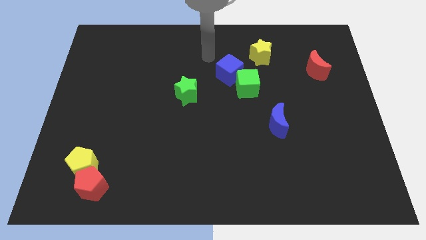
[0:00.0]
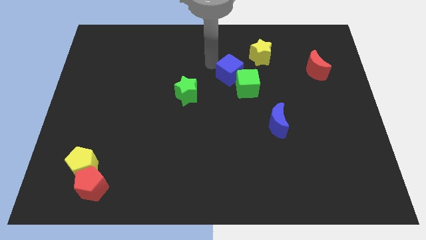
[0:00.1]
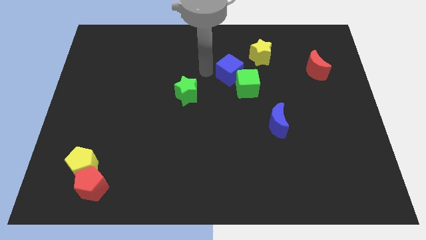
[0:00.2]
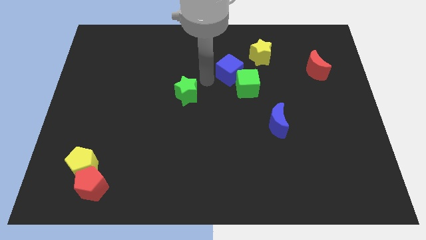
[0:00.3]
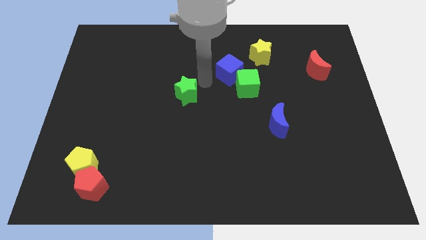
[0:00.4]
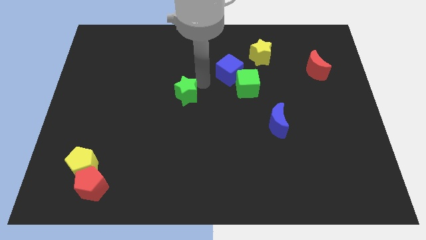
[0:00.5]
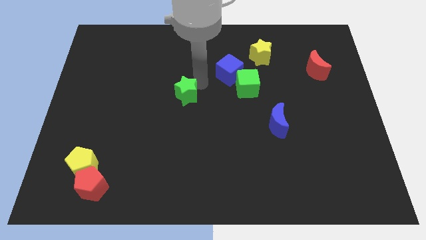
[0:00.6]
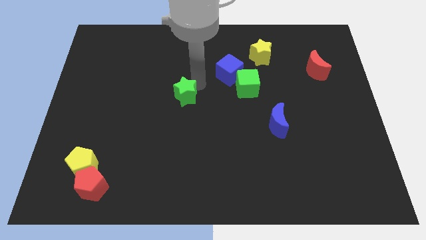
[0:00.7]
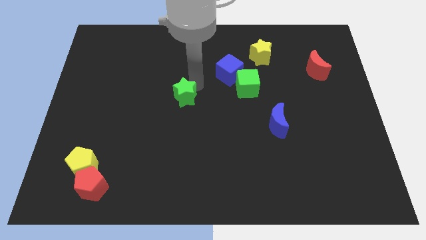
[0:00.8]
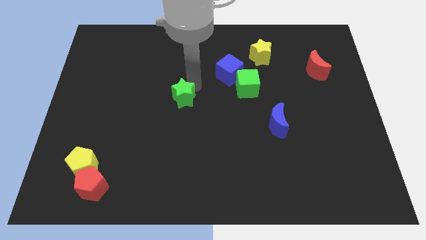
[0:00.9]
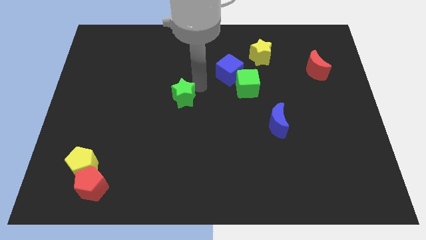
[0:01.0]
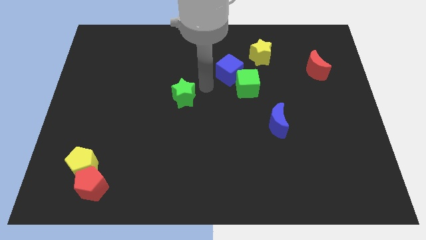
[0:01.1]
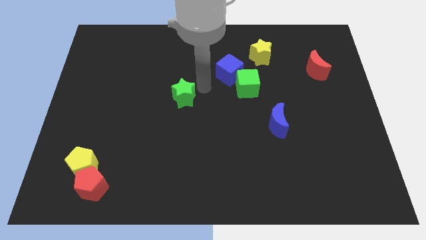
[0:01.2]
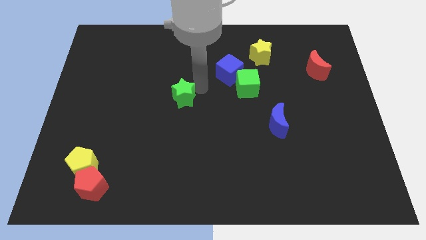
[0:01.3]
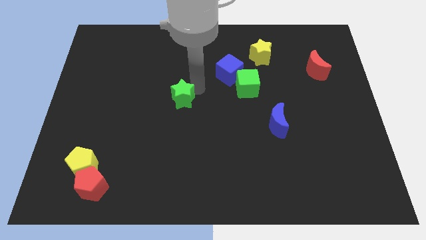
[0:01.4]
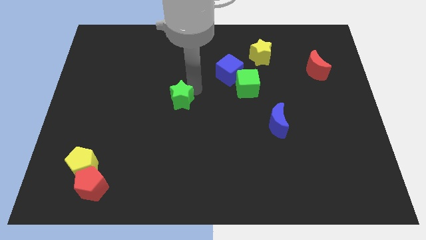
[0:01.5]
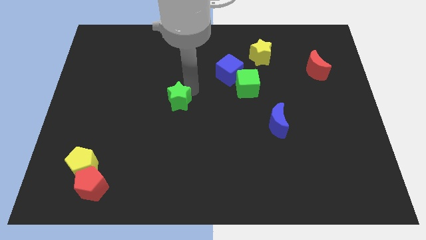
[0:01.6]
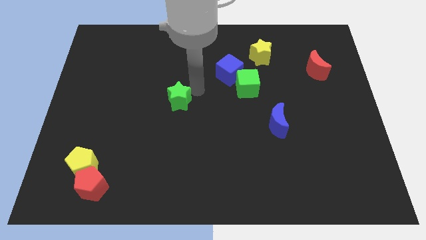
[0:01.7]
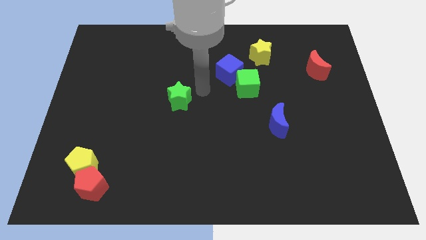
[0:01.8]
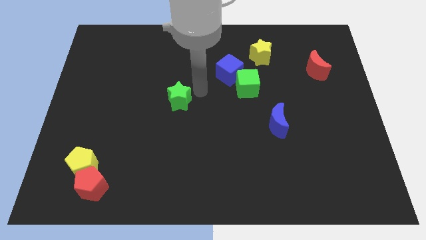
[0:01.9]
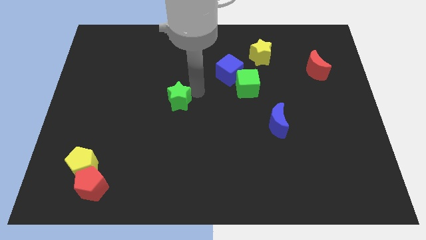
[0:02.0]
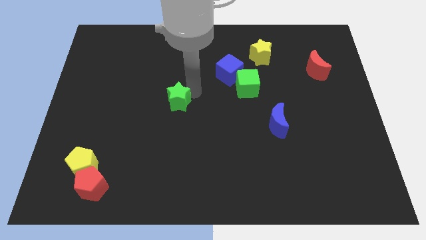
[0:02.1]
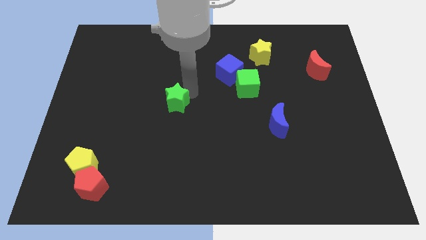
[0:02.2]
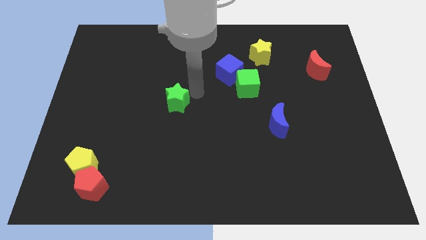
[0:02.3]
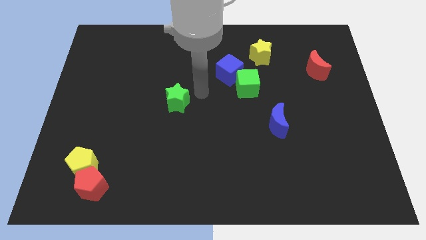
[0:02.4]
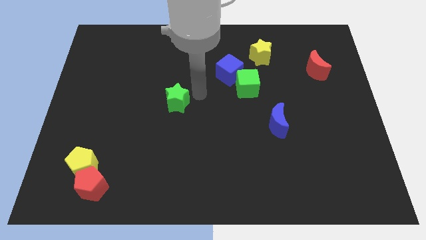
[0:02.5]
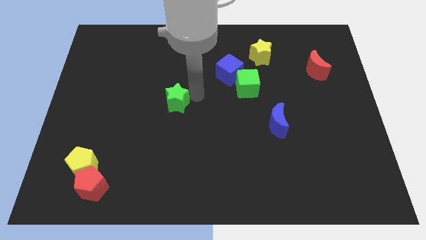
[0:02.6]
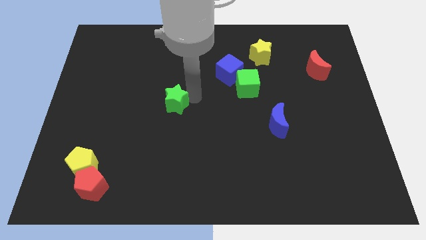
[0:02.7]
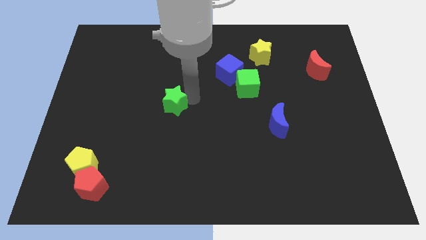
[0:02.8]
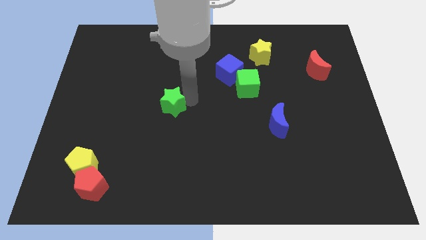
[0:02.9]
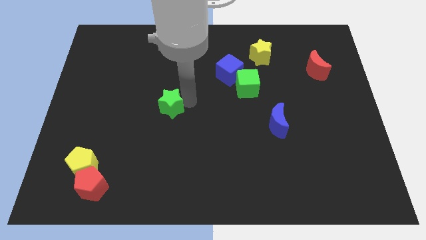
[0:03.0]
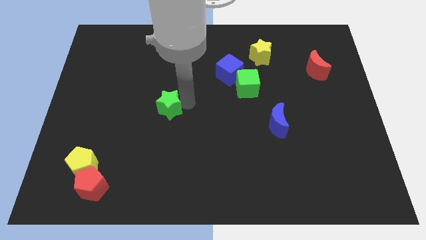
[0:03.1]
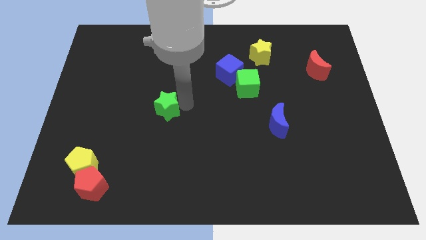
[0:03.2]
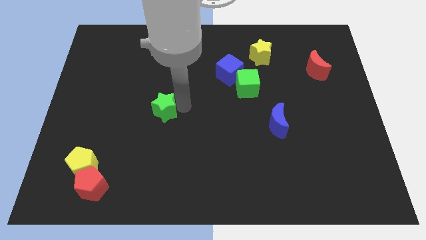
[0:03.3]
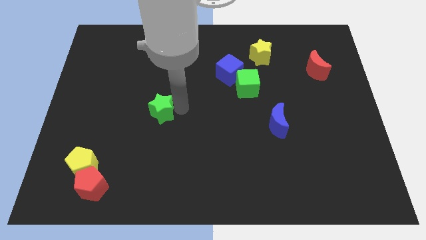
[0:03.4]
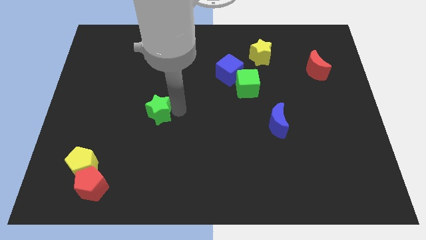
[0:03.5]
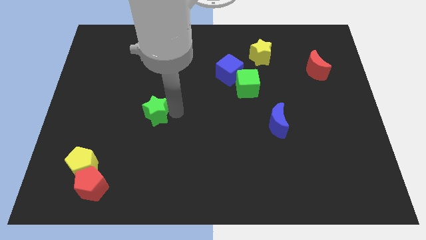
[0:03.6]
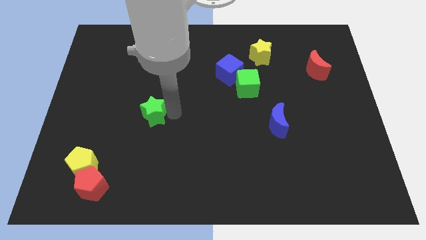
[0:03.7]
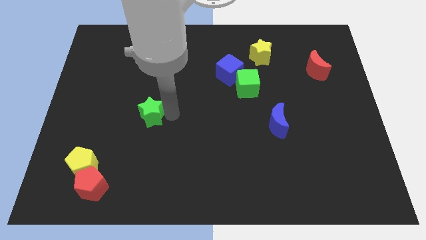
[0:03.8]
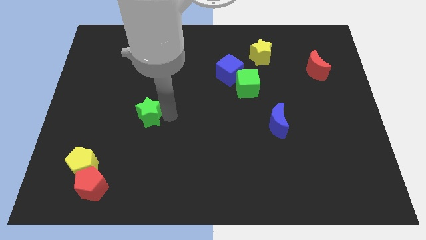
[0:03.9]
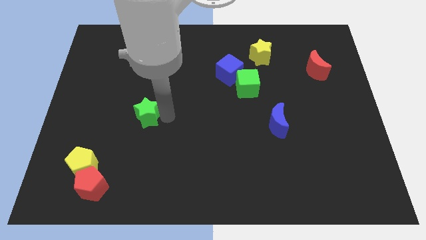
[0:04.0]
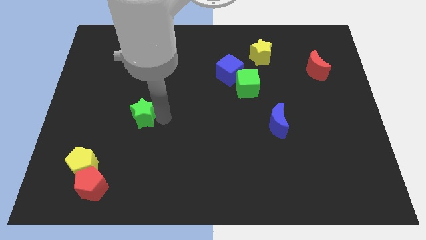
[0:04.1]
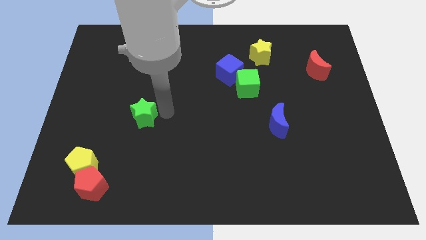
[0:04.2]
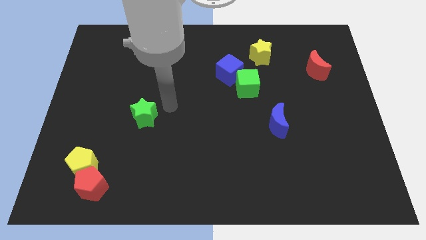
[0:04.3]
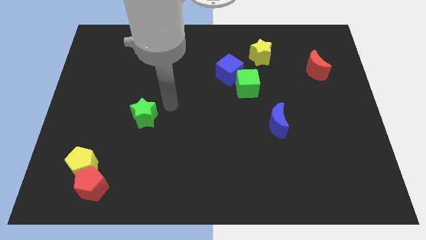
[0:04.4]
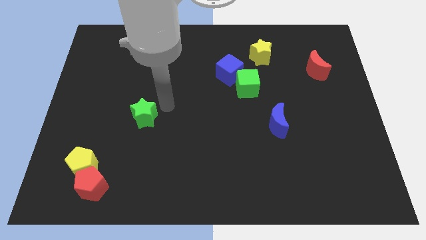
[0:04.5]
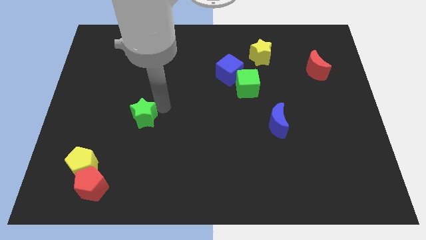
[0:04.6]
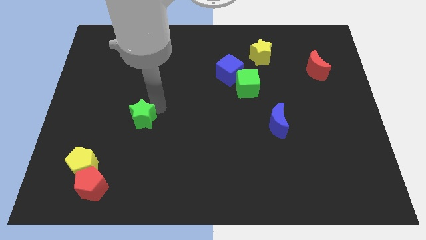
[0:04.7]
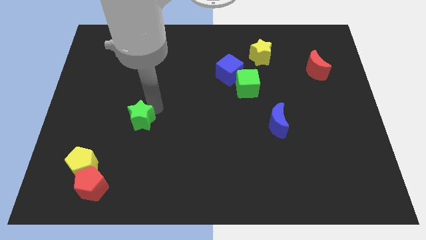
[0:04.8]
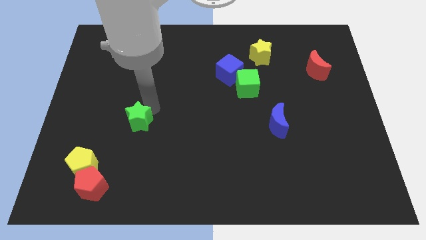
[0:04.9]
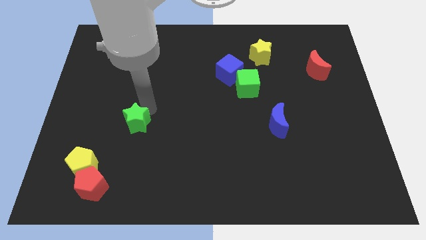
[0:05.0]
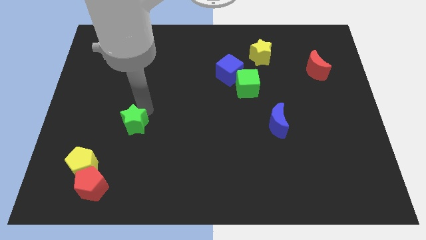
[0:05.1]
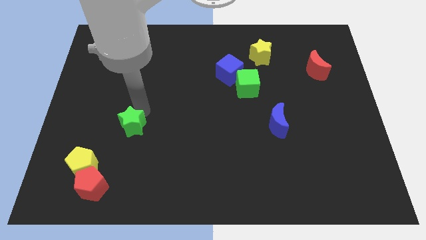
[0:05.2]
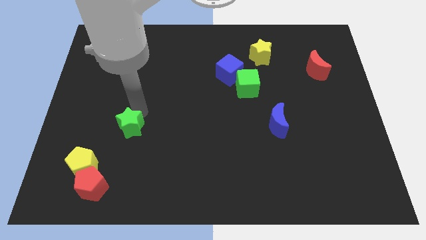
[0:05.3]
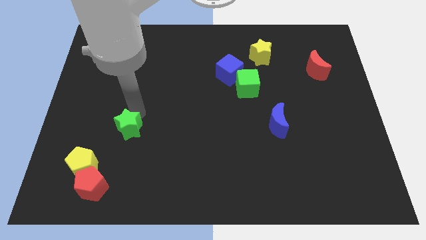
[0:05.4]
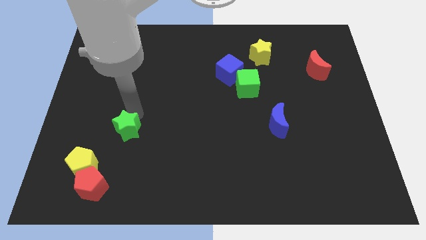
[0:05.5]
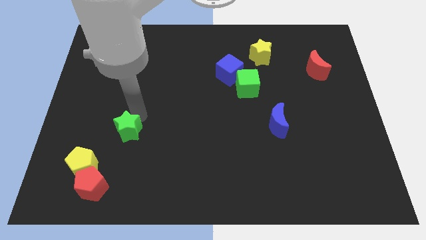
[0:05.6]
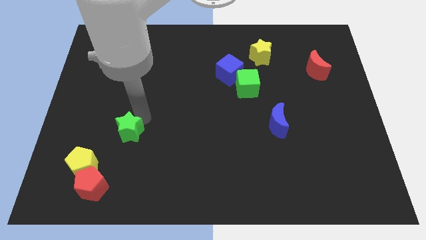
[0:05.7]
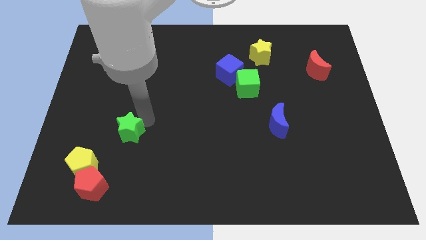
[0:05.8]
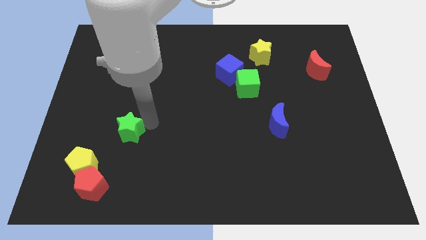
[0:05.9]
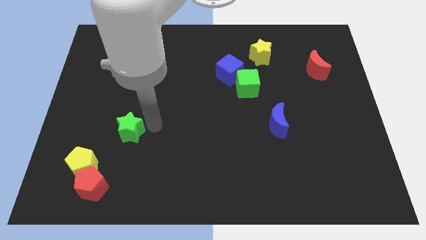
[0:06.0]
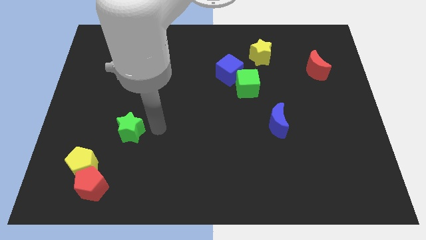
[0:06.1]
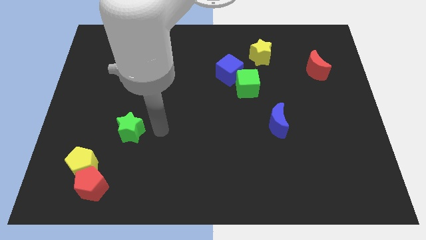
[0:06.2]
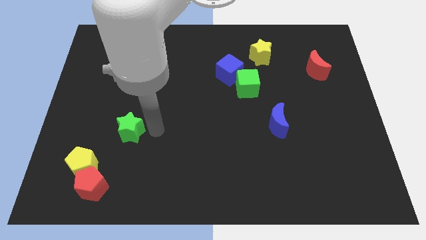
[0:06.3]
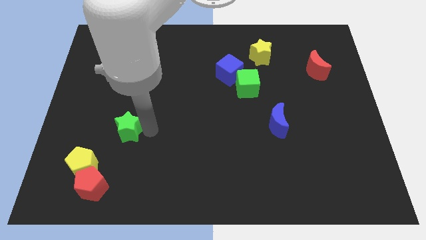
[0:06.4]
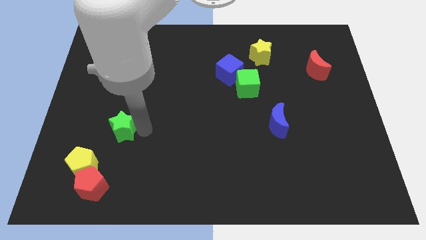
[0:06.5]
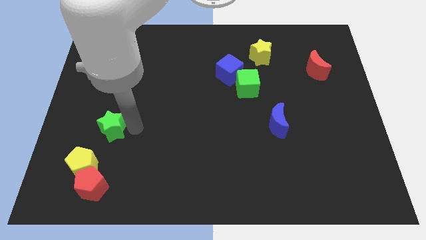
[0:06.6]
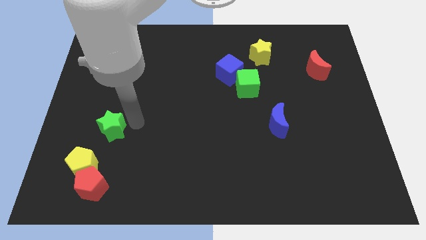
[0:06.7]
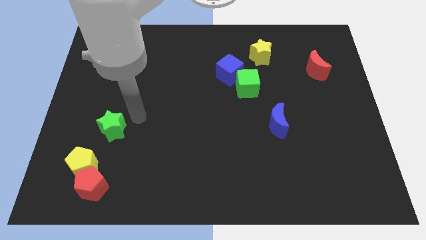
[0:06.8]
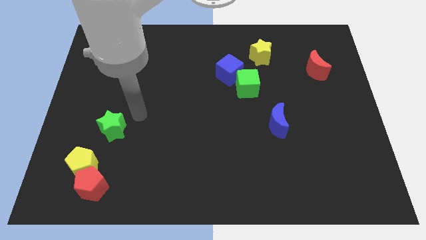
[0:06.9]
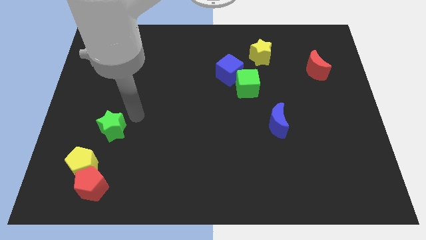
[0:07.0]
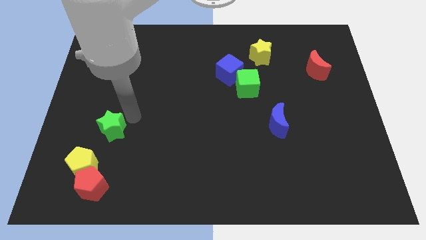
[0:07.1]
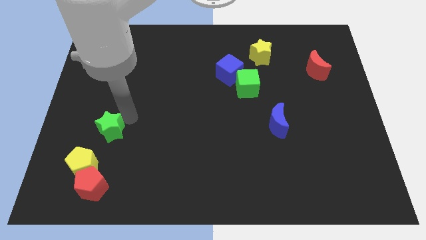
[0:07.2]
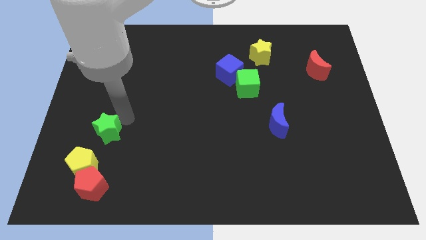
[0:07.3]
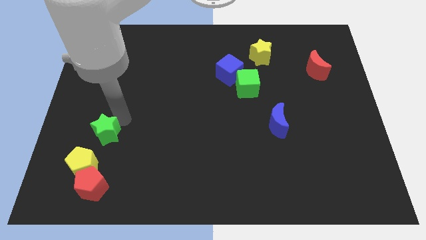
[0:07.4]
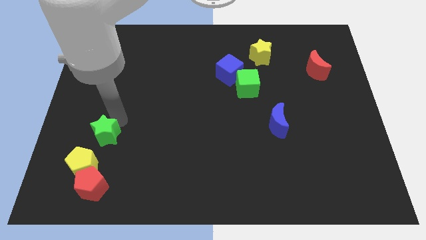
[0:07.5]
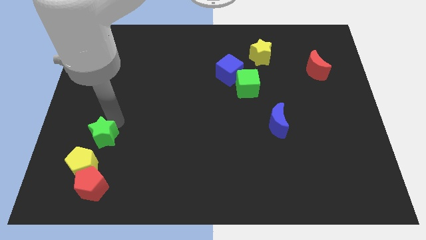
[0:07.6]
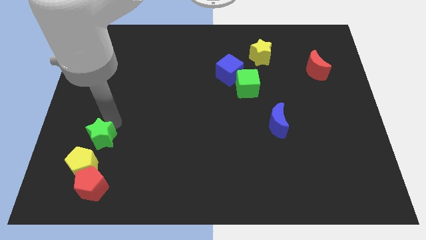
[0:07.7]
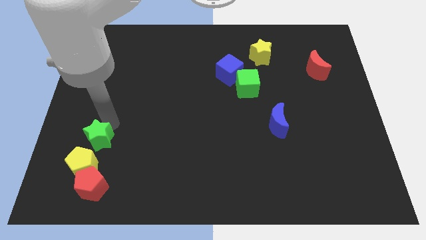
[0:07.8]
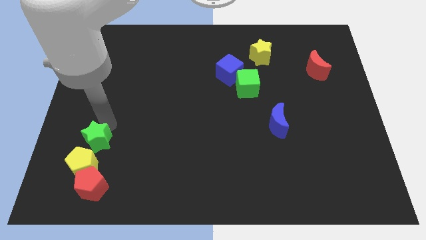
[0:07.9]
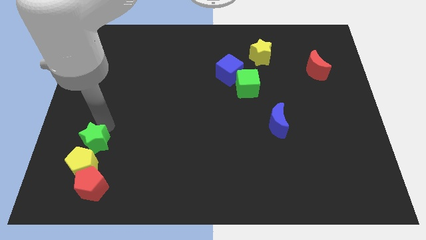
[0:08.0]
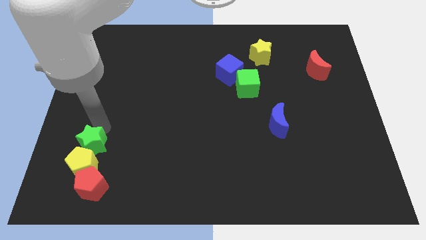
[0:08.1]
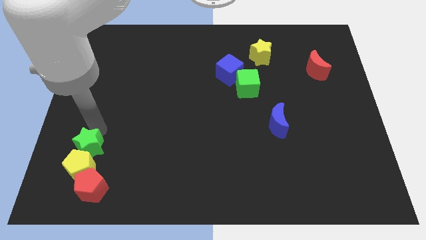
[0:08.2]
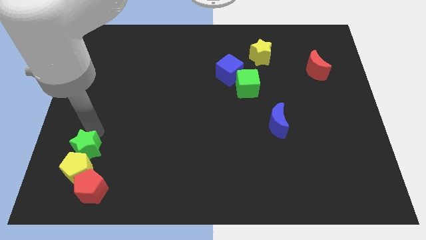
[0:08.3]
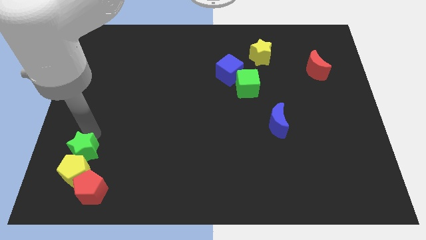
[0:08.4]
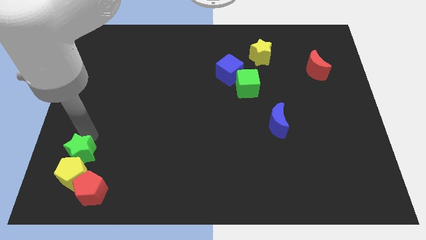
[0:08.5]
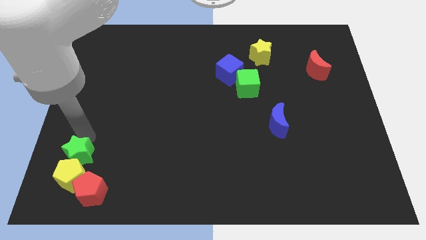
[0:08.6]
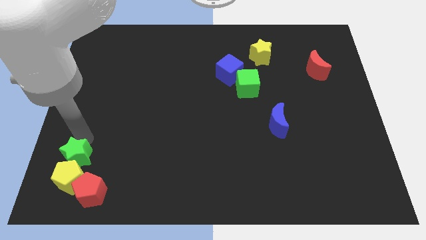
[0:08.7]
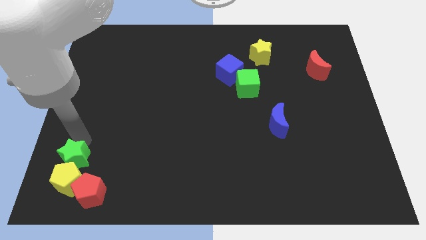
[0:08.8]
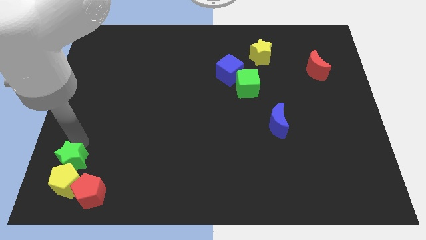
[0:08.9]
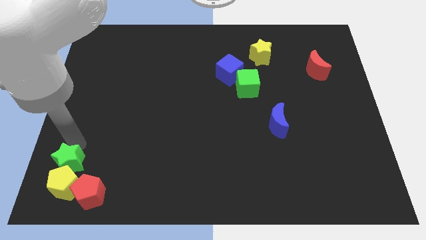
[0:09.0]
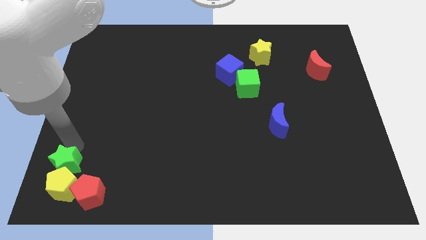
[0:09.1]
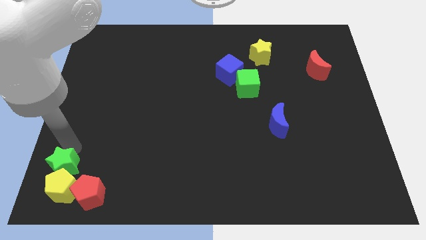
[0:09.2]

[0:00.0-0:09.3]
move the green star to the bottom left corner
